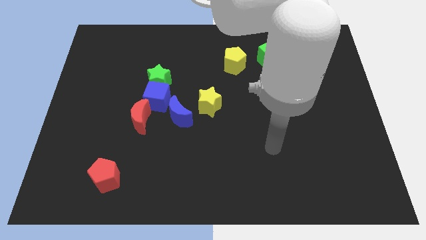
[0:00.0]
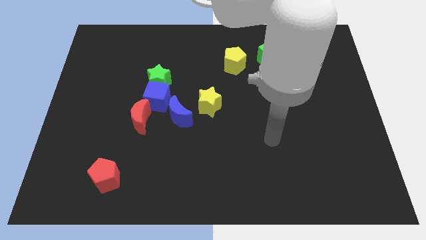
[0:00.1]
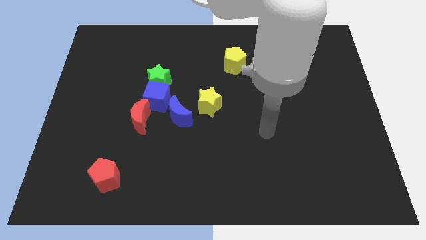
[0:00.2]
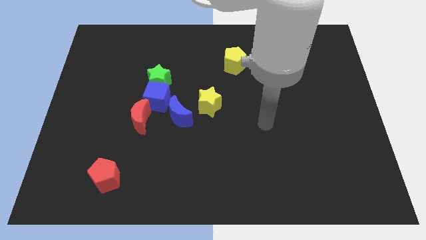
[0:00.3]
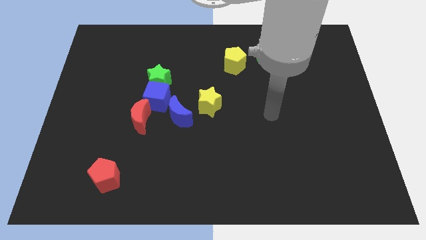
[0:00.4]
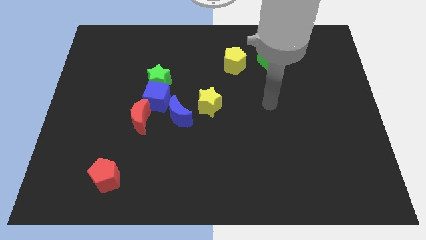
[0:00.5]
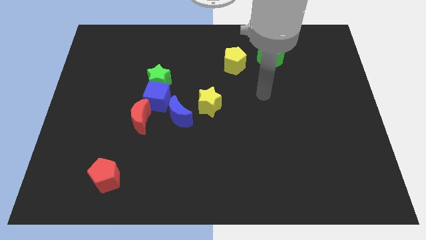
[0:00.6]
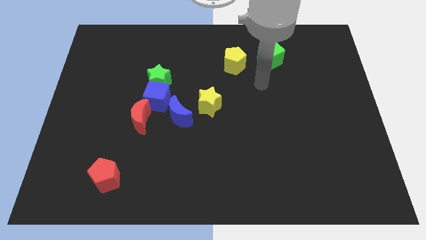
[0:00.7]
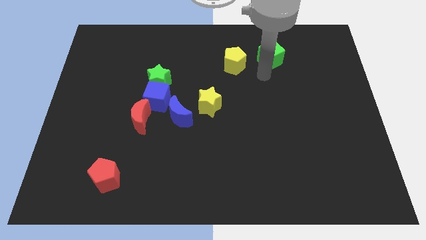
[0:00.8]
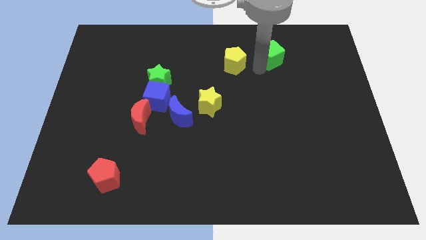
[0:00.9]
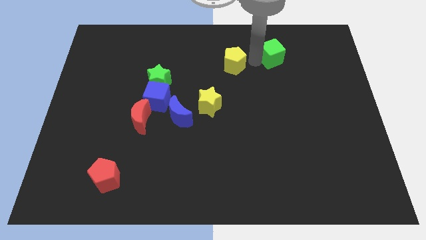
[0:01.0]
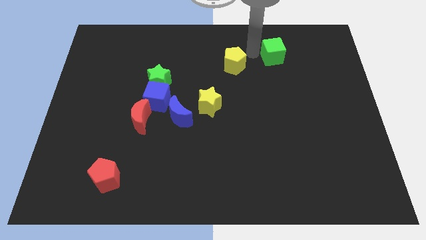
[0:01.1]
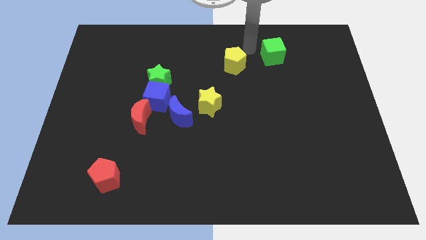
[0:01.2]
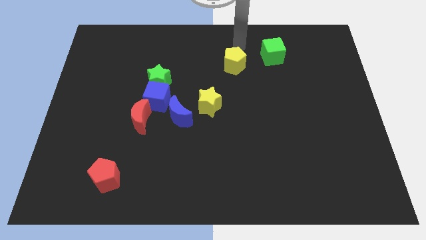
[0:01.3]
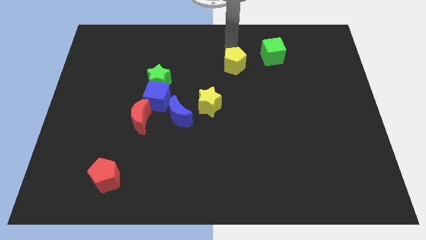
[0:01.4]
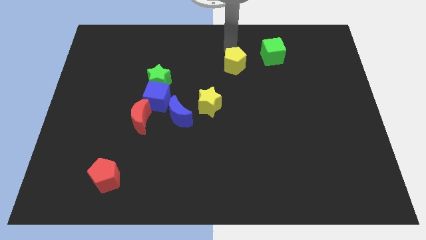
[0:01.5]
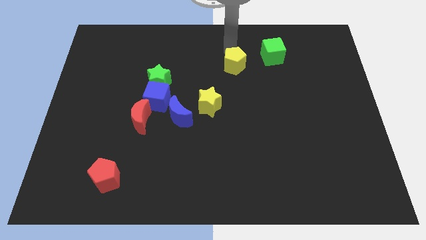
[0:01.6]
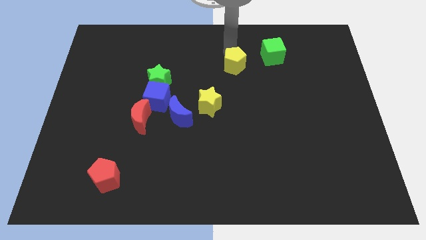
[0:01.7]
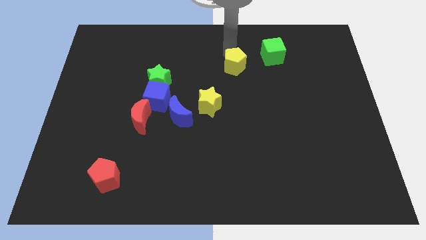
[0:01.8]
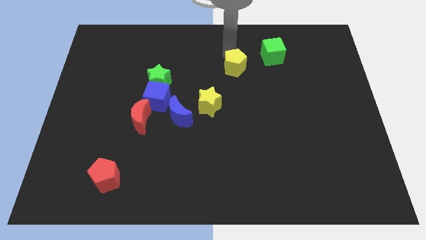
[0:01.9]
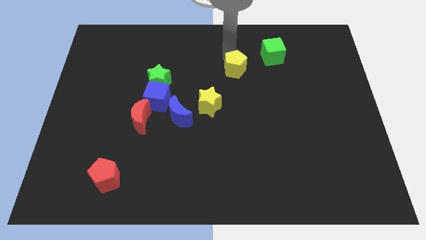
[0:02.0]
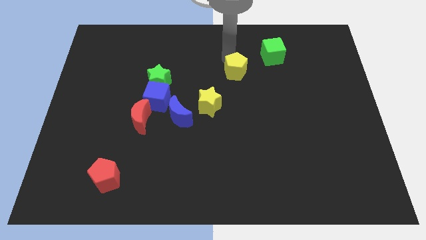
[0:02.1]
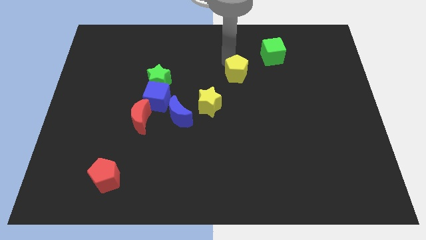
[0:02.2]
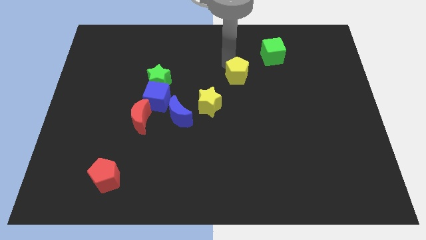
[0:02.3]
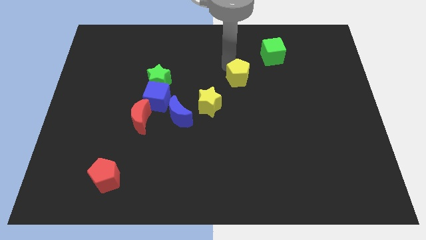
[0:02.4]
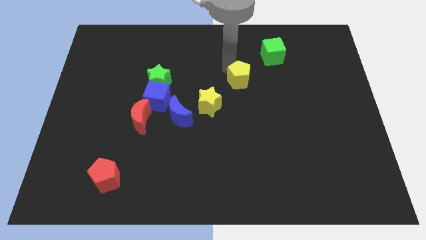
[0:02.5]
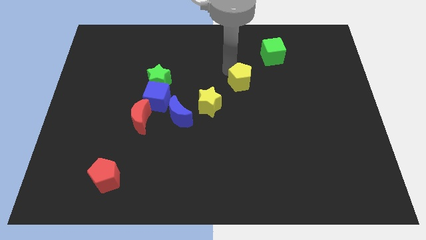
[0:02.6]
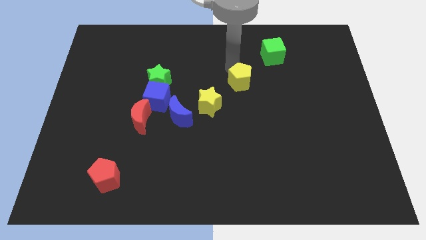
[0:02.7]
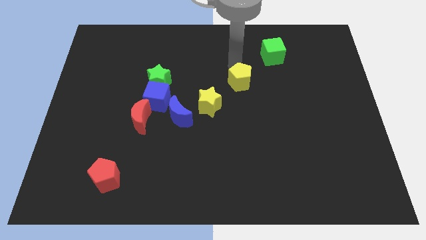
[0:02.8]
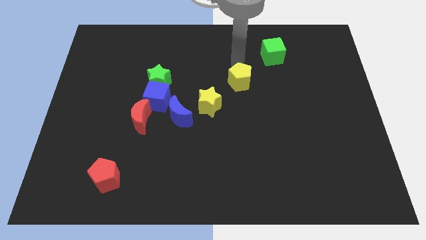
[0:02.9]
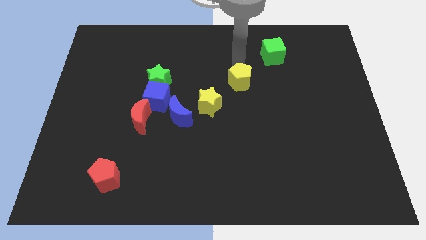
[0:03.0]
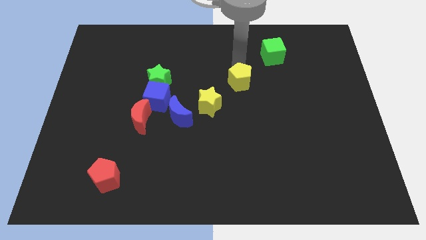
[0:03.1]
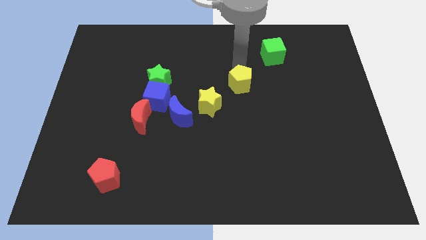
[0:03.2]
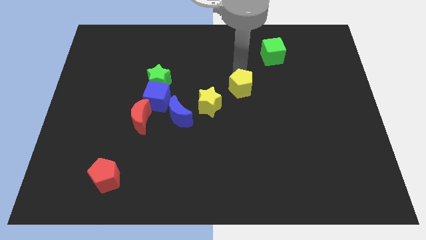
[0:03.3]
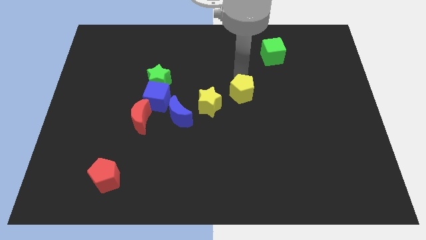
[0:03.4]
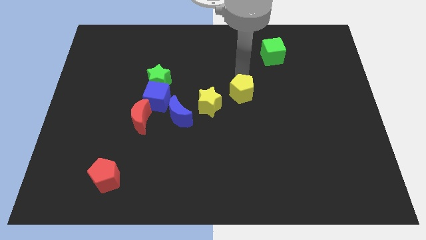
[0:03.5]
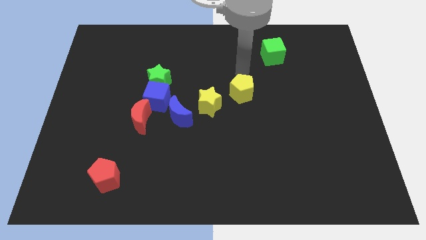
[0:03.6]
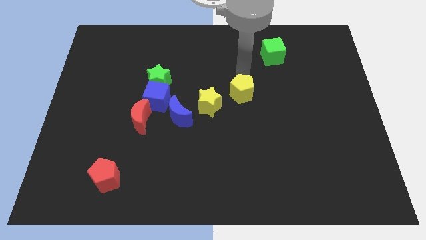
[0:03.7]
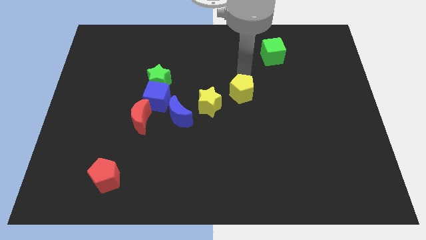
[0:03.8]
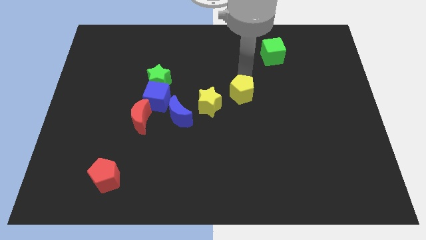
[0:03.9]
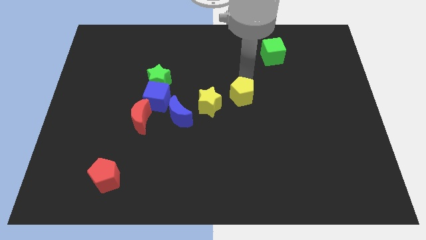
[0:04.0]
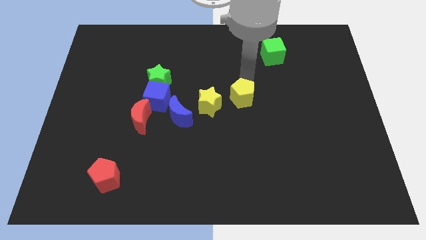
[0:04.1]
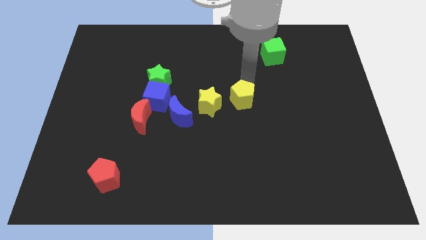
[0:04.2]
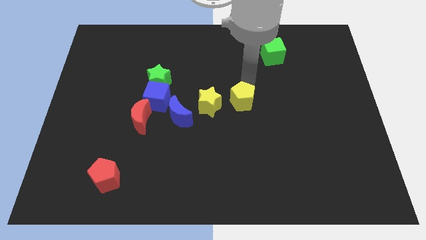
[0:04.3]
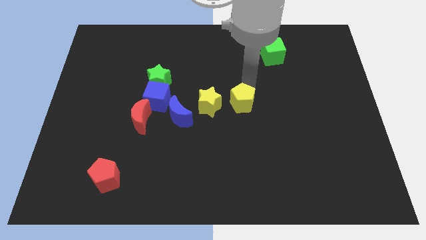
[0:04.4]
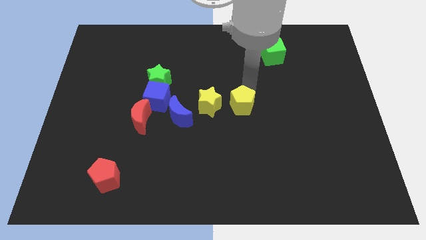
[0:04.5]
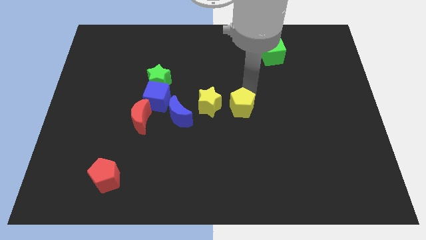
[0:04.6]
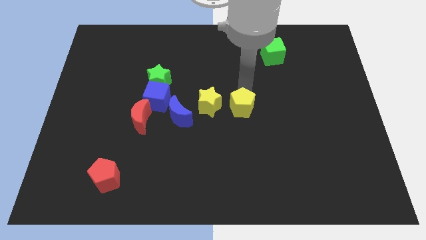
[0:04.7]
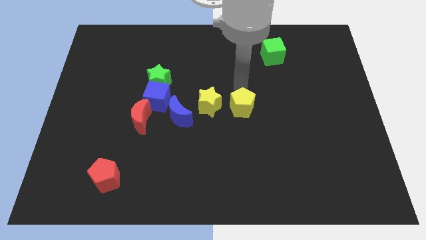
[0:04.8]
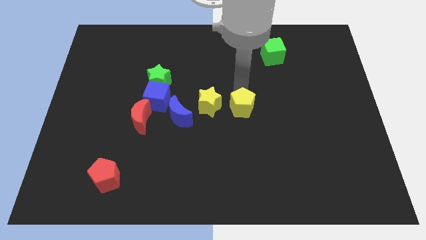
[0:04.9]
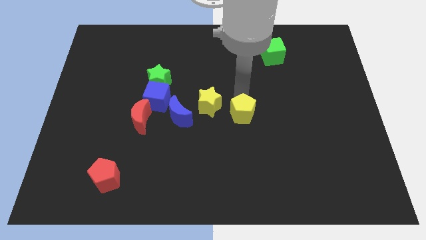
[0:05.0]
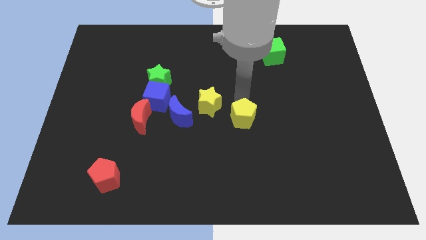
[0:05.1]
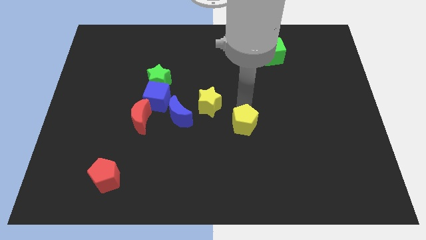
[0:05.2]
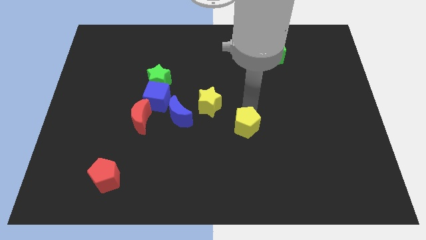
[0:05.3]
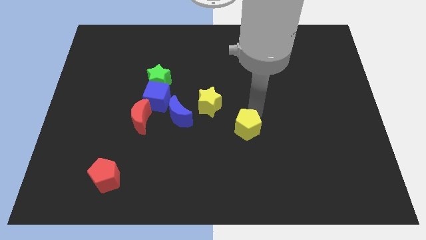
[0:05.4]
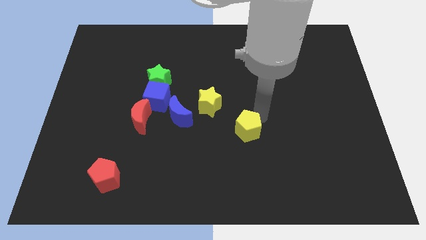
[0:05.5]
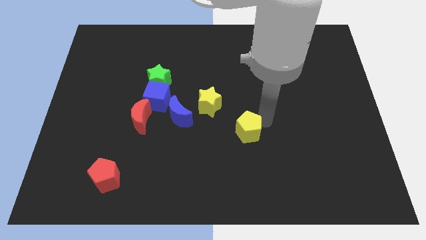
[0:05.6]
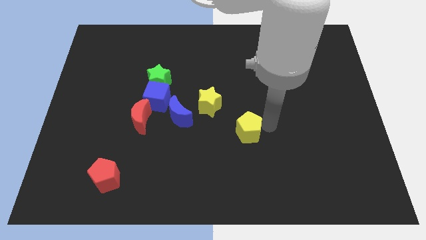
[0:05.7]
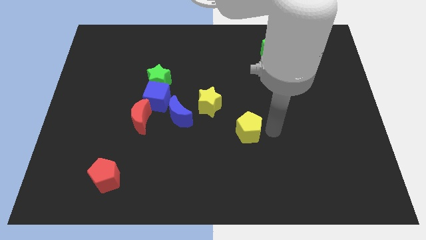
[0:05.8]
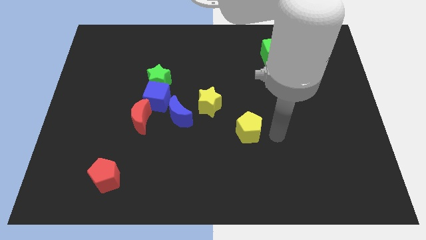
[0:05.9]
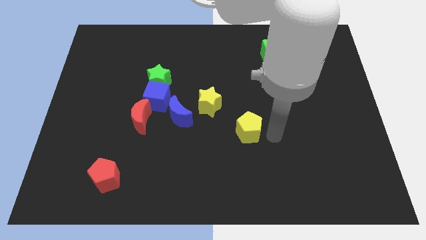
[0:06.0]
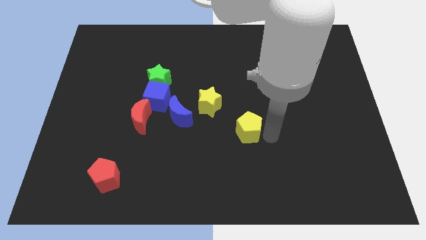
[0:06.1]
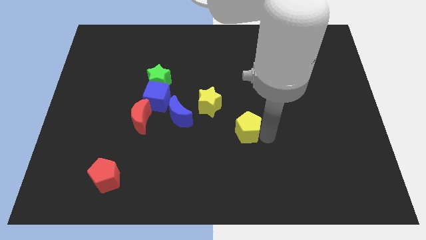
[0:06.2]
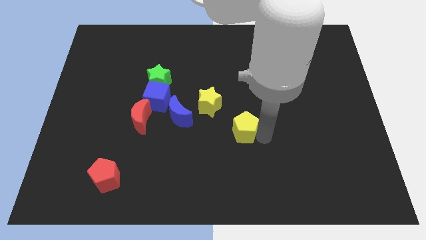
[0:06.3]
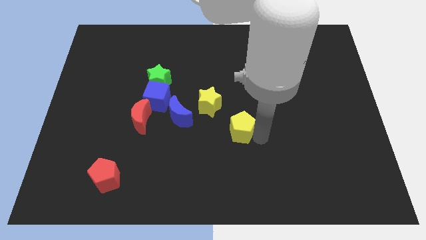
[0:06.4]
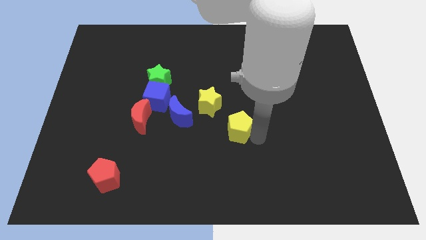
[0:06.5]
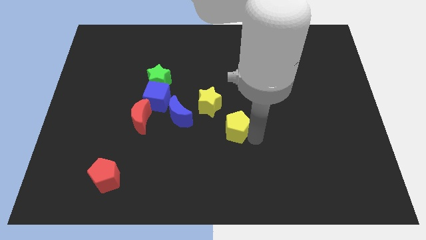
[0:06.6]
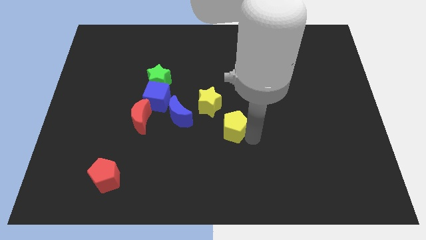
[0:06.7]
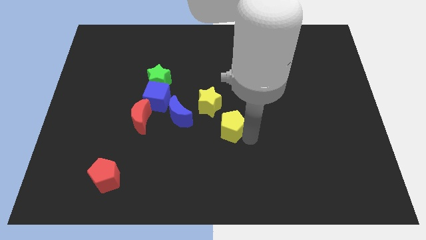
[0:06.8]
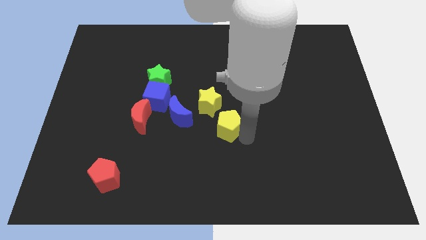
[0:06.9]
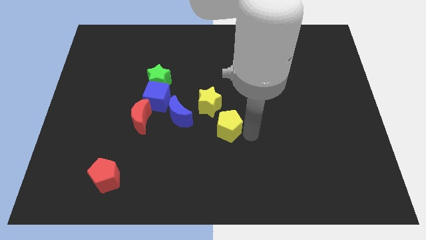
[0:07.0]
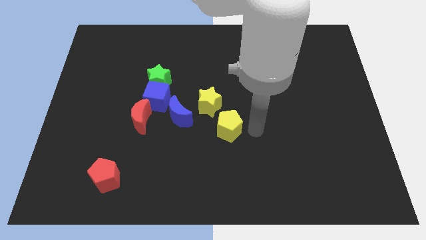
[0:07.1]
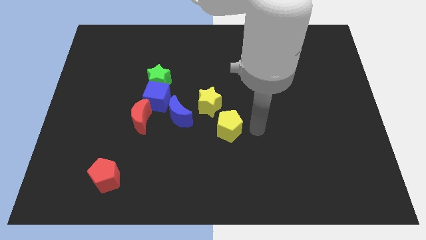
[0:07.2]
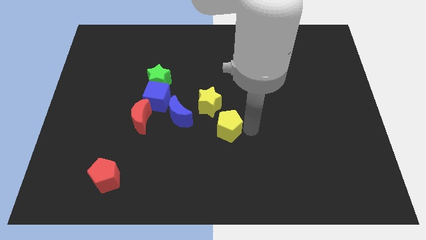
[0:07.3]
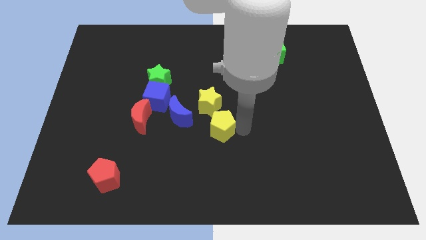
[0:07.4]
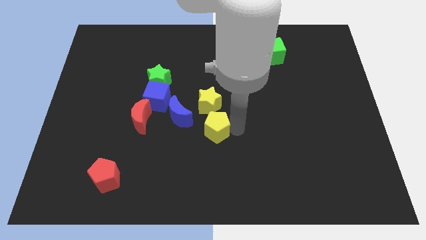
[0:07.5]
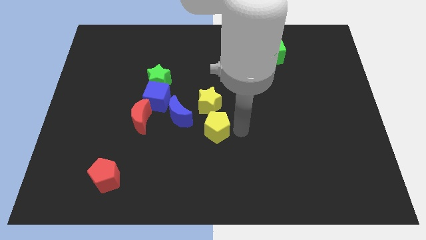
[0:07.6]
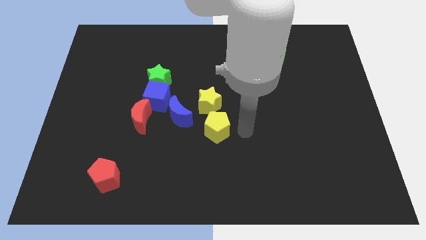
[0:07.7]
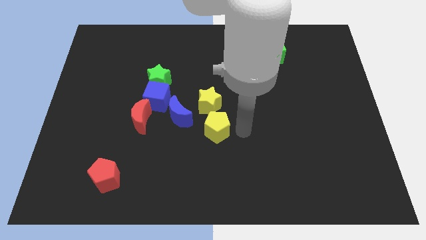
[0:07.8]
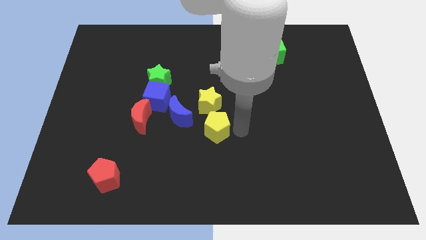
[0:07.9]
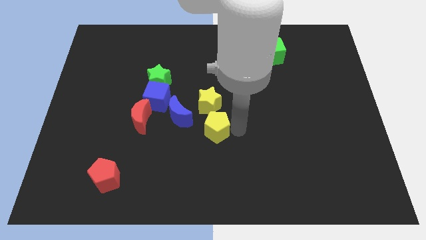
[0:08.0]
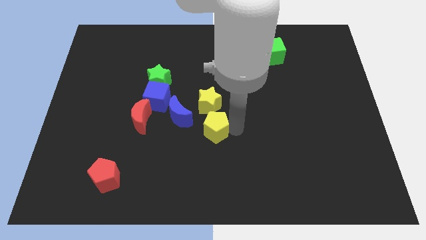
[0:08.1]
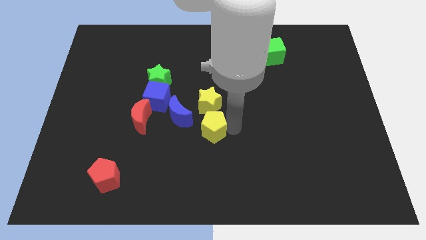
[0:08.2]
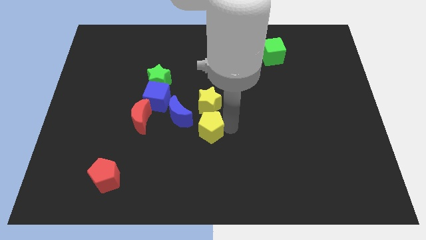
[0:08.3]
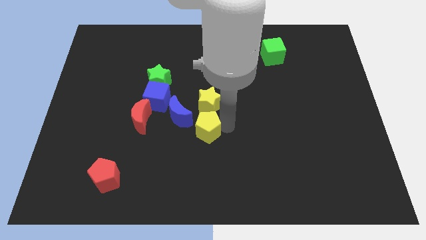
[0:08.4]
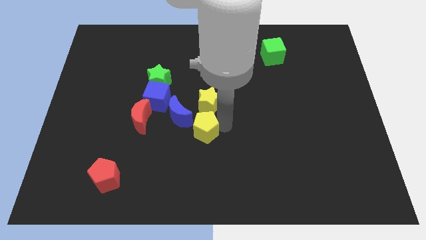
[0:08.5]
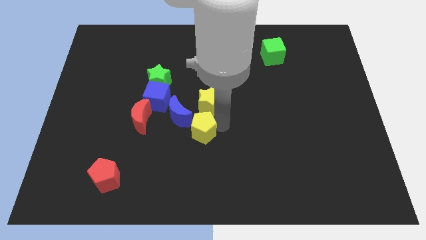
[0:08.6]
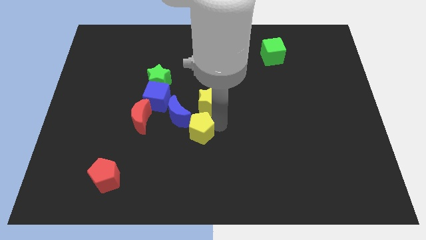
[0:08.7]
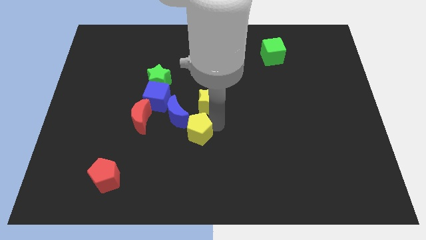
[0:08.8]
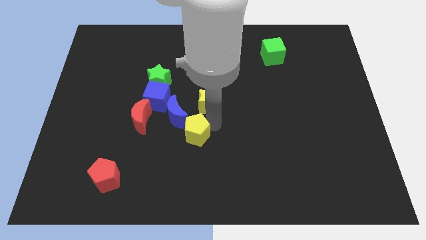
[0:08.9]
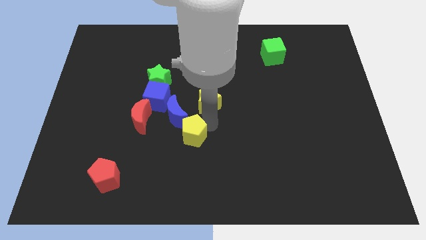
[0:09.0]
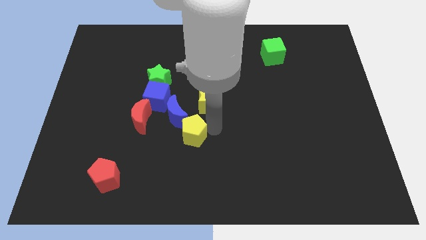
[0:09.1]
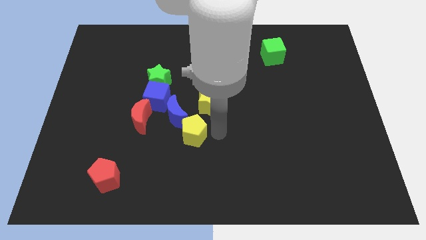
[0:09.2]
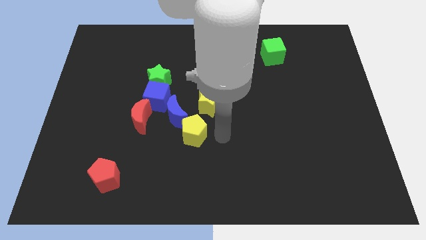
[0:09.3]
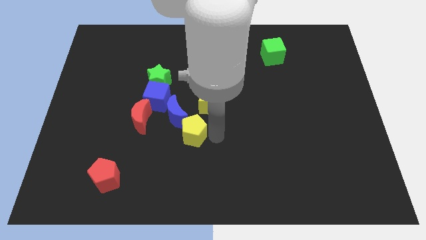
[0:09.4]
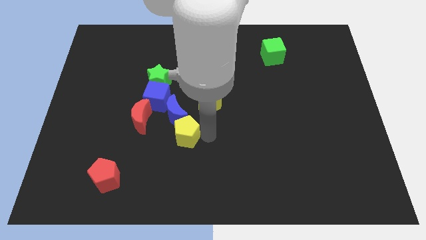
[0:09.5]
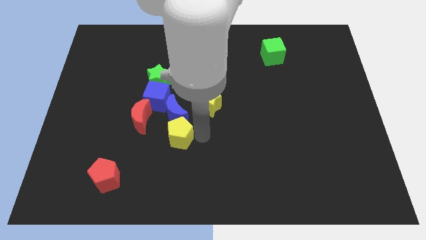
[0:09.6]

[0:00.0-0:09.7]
push the yellow pentagon diagonally down and to the left of the blue moon
